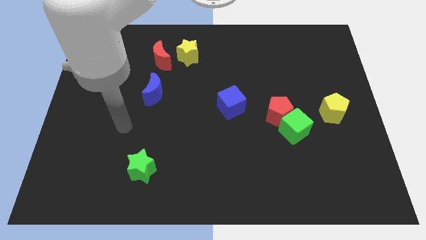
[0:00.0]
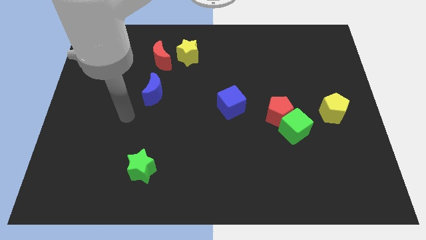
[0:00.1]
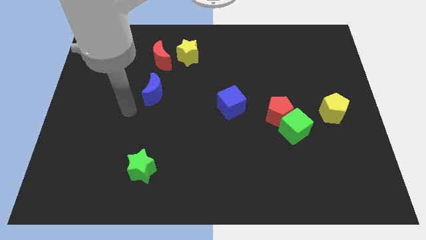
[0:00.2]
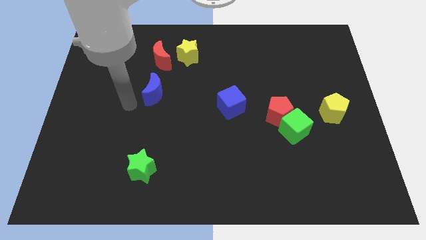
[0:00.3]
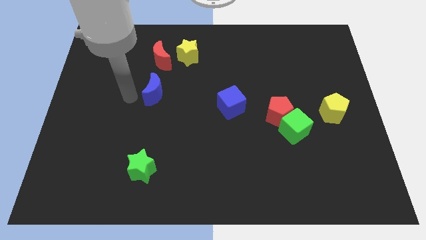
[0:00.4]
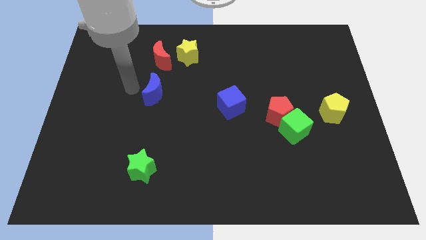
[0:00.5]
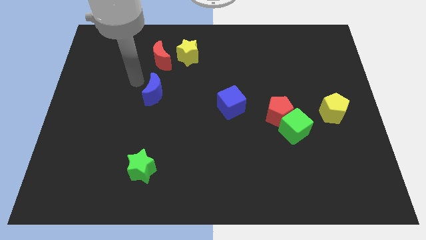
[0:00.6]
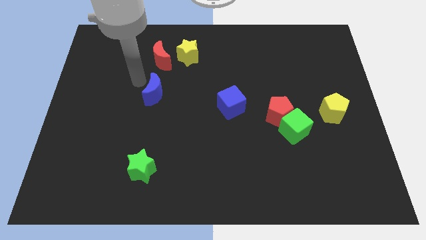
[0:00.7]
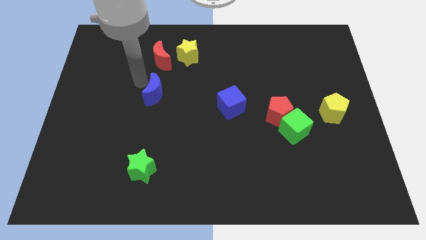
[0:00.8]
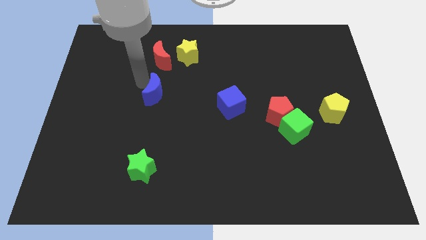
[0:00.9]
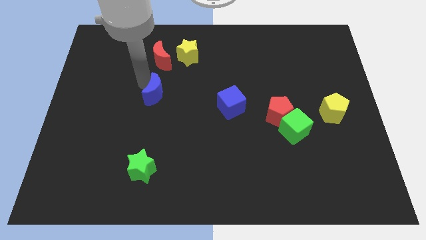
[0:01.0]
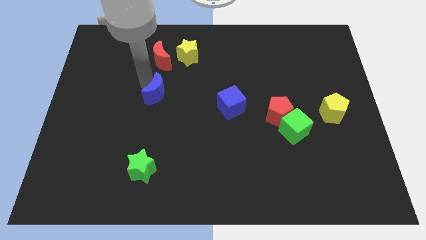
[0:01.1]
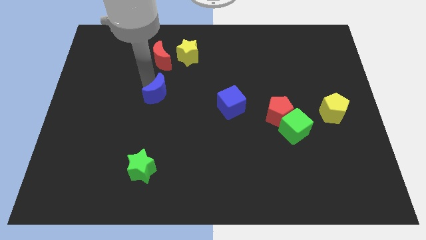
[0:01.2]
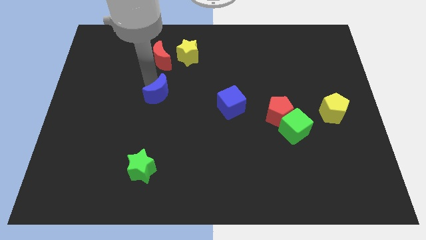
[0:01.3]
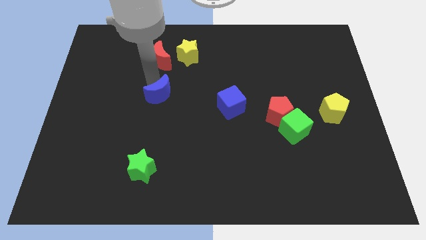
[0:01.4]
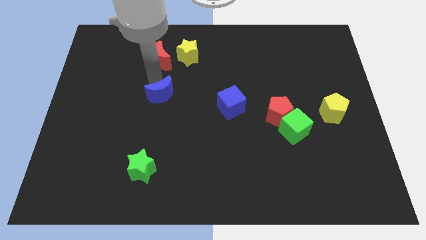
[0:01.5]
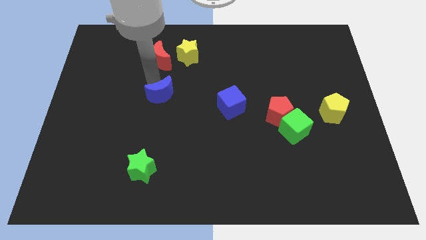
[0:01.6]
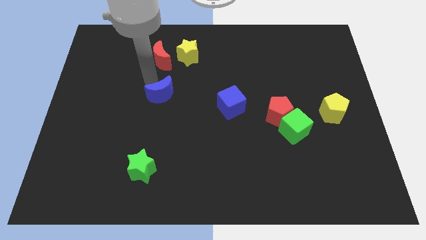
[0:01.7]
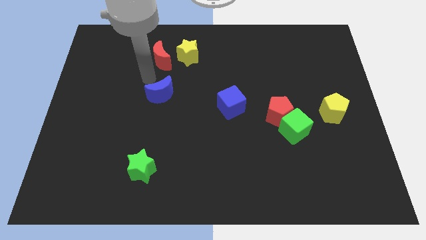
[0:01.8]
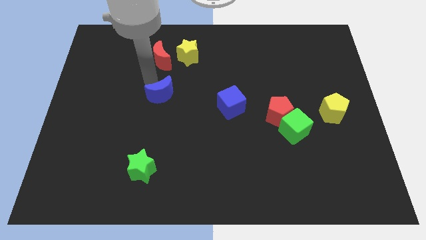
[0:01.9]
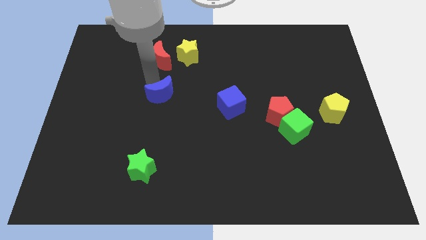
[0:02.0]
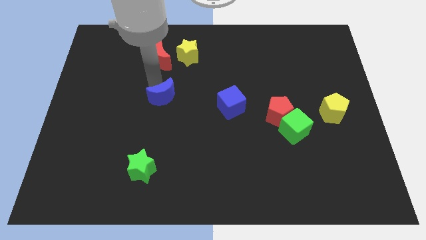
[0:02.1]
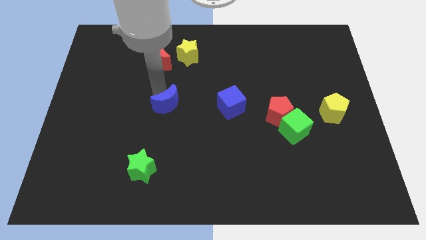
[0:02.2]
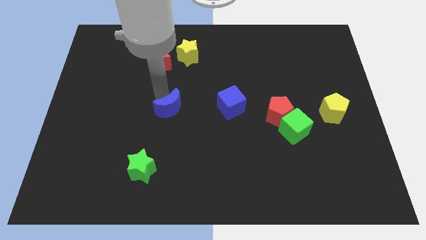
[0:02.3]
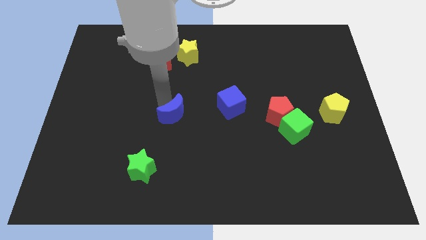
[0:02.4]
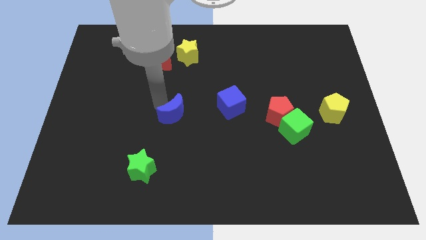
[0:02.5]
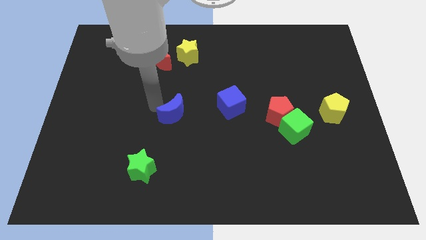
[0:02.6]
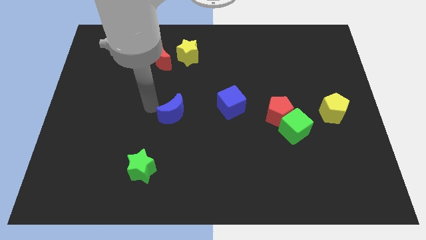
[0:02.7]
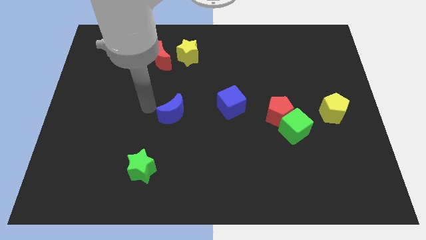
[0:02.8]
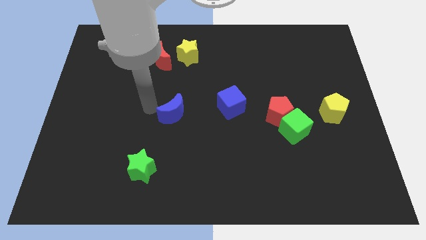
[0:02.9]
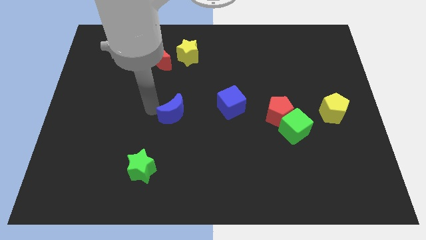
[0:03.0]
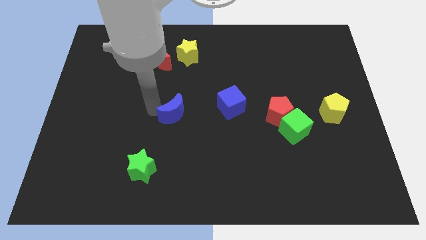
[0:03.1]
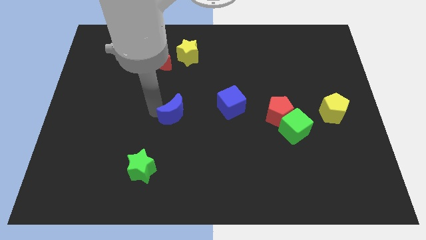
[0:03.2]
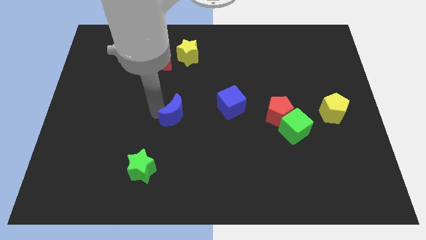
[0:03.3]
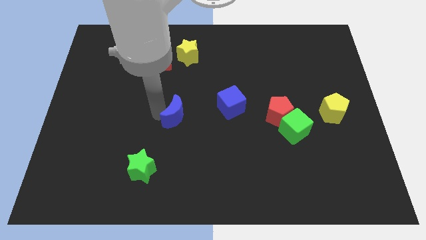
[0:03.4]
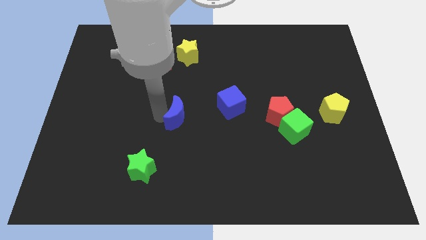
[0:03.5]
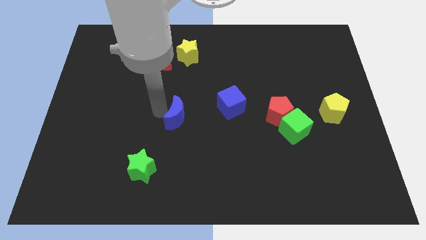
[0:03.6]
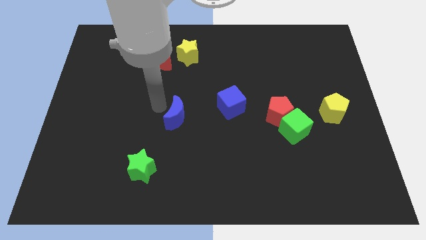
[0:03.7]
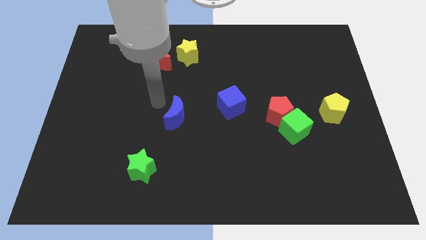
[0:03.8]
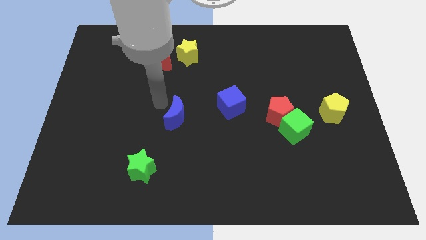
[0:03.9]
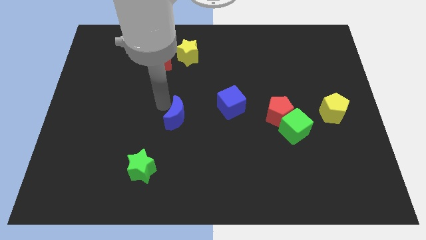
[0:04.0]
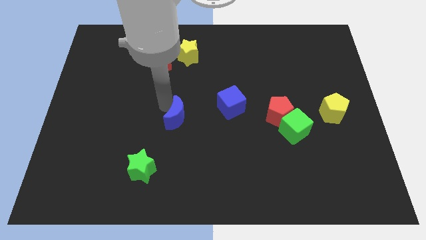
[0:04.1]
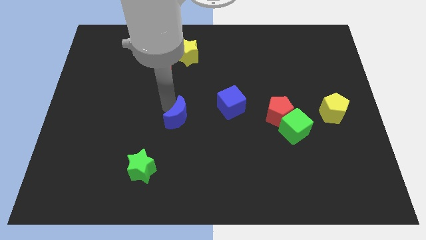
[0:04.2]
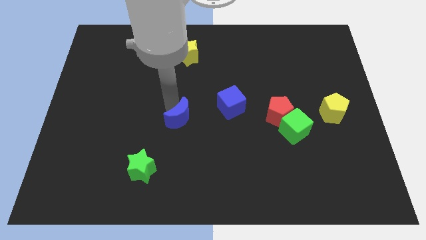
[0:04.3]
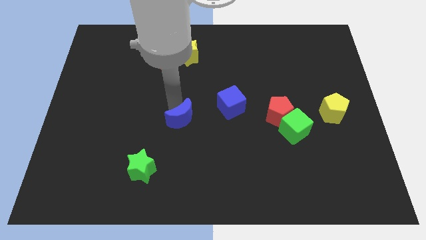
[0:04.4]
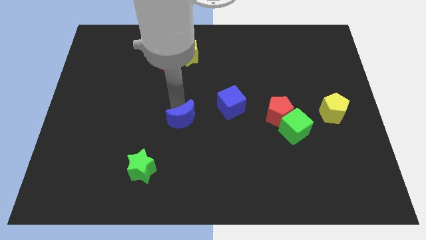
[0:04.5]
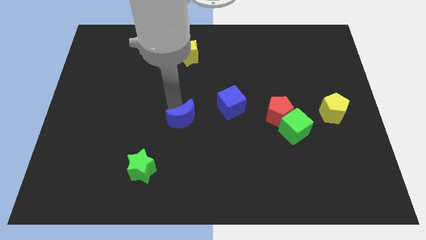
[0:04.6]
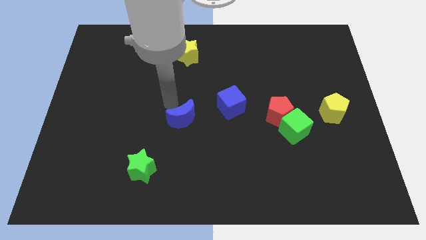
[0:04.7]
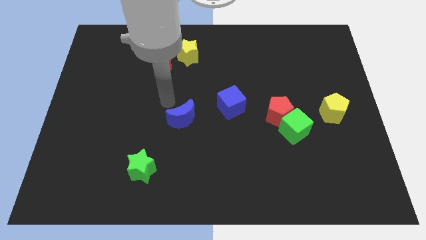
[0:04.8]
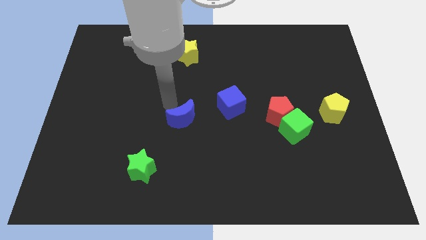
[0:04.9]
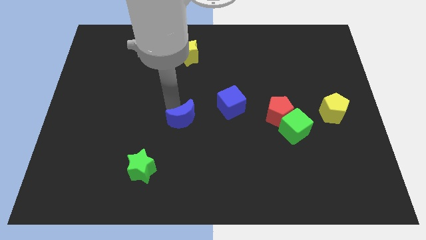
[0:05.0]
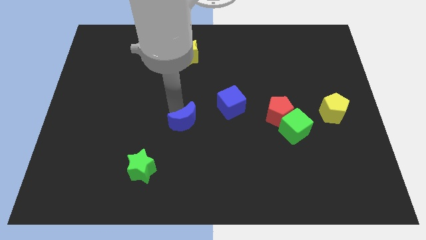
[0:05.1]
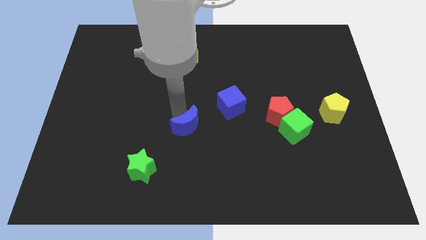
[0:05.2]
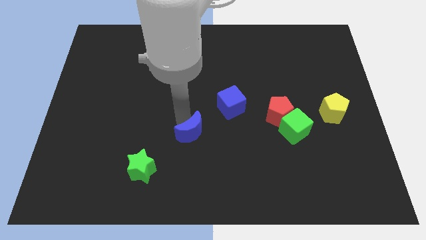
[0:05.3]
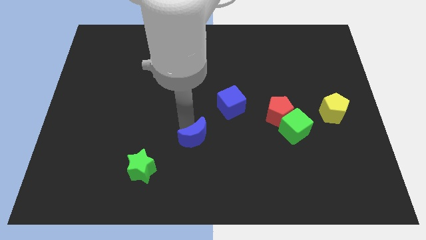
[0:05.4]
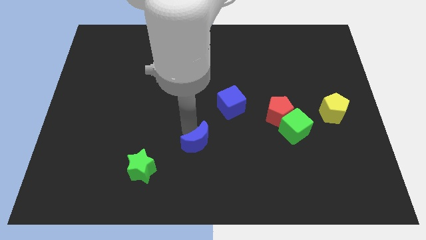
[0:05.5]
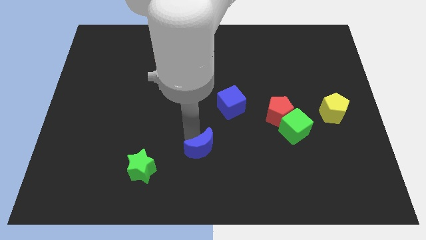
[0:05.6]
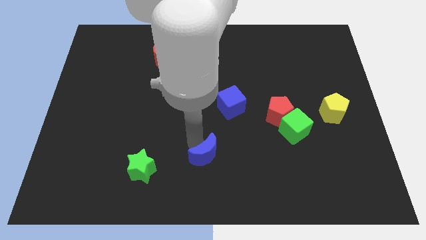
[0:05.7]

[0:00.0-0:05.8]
move the blue moon diagonally downwards and right

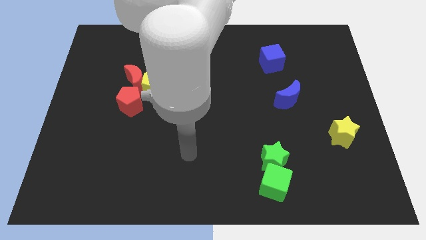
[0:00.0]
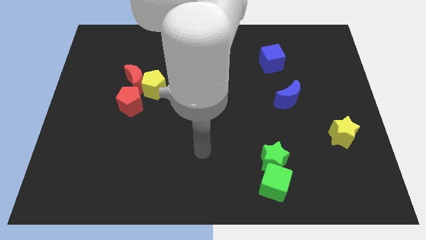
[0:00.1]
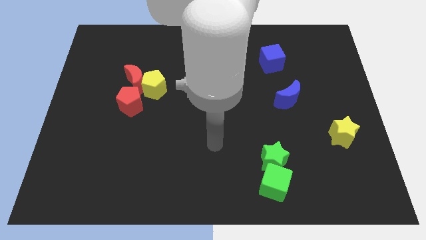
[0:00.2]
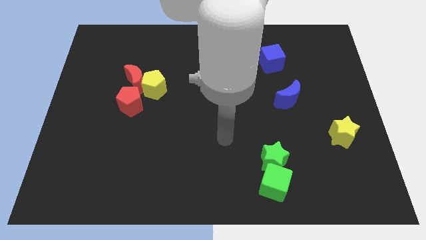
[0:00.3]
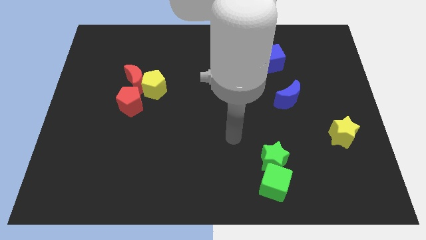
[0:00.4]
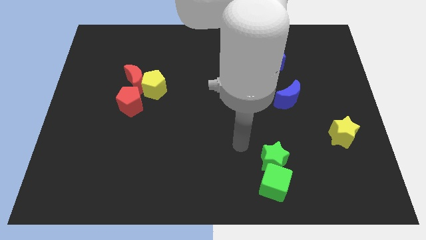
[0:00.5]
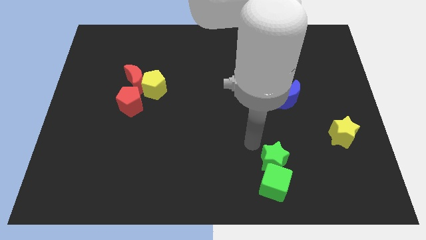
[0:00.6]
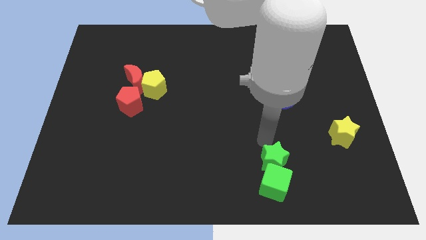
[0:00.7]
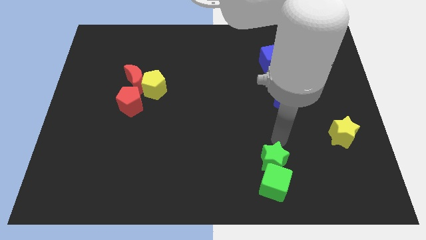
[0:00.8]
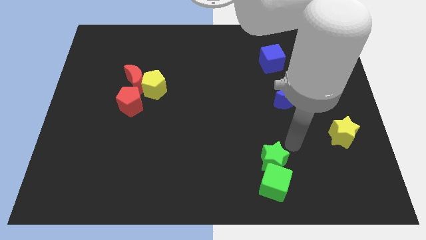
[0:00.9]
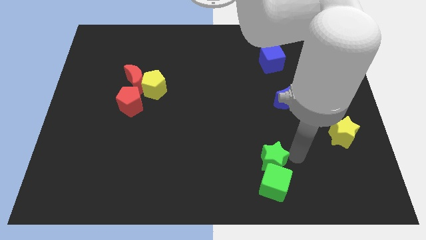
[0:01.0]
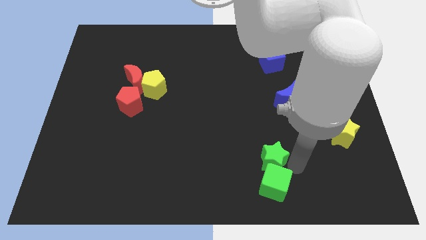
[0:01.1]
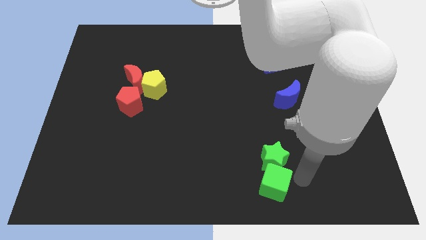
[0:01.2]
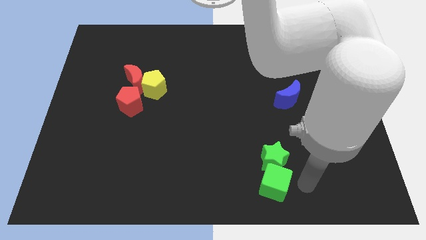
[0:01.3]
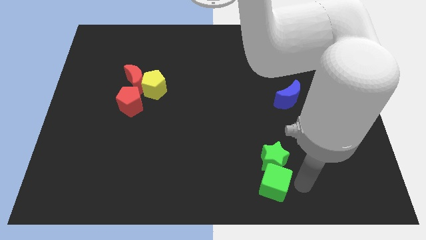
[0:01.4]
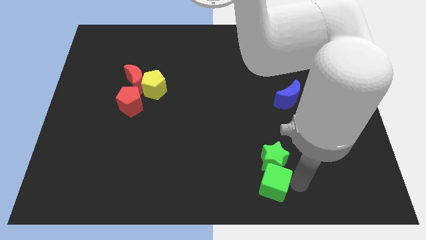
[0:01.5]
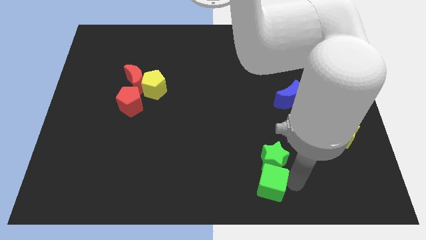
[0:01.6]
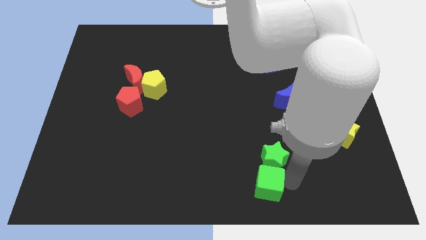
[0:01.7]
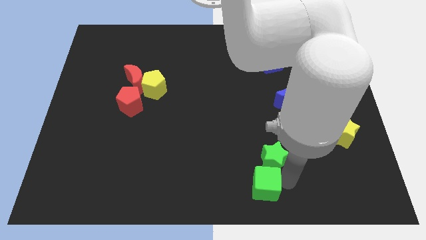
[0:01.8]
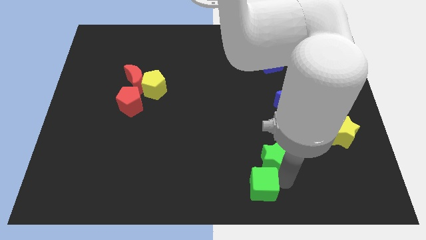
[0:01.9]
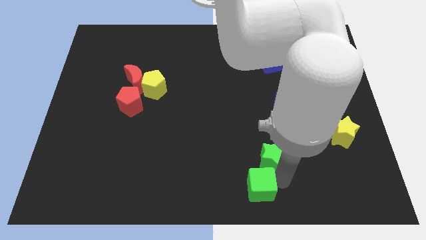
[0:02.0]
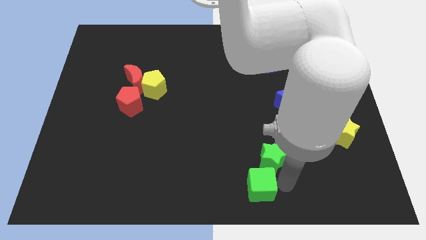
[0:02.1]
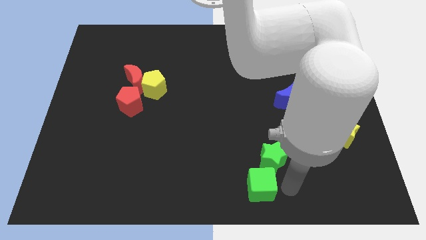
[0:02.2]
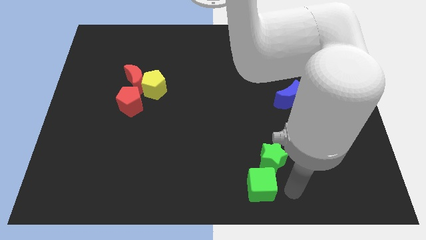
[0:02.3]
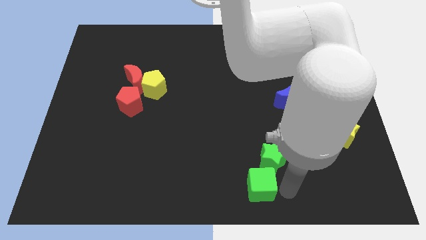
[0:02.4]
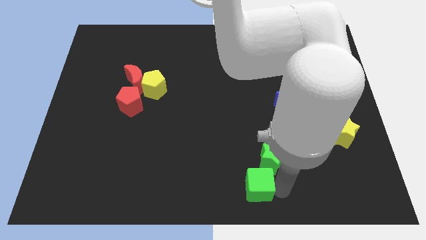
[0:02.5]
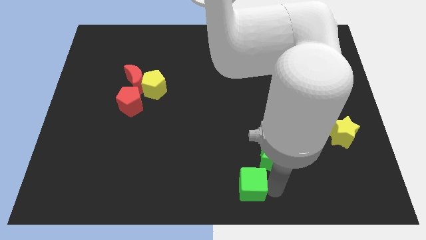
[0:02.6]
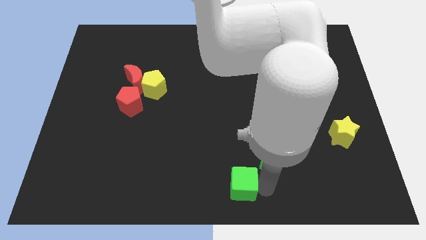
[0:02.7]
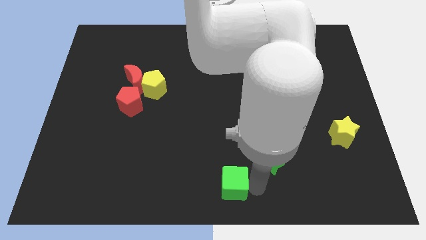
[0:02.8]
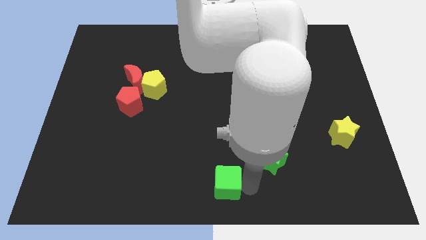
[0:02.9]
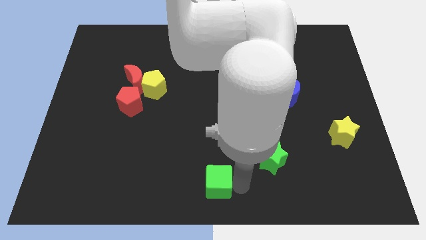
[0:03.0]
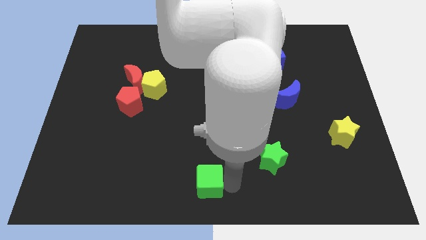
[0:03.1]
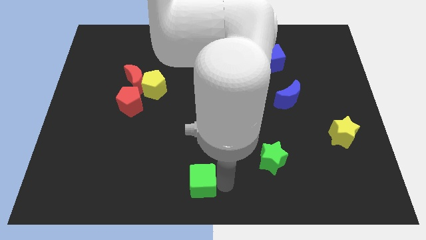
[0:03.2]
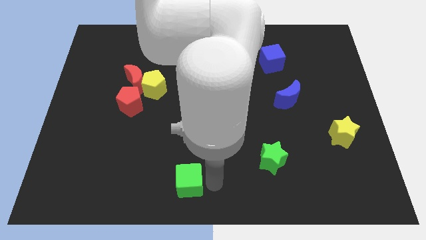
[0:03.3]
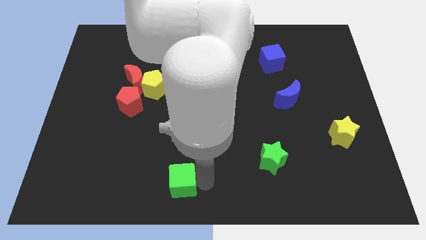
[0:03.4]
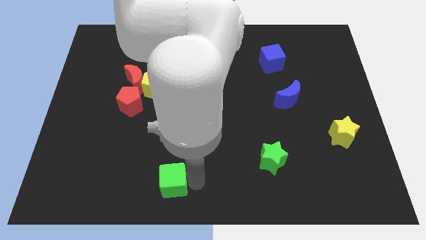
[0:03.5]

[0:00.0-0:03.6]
move the green cube left
